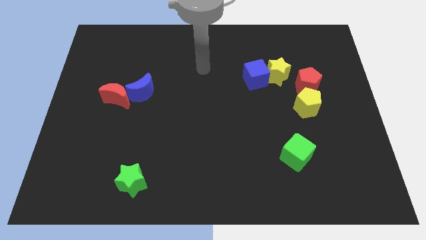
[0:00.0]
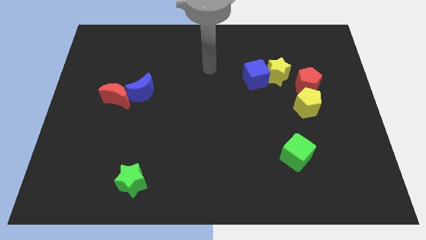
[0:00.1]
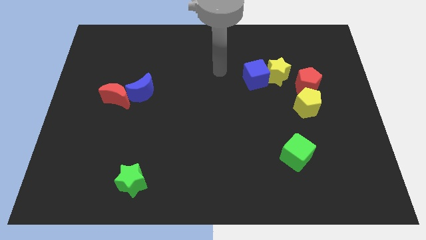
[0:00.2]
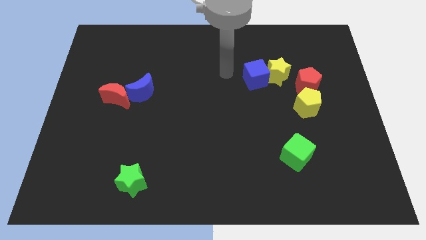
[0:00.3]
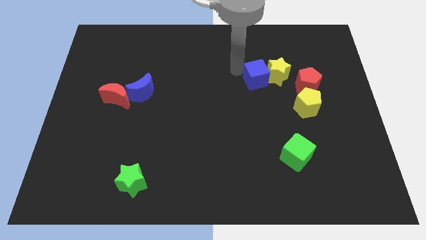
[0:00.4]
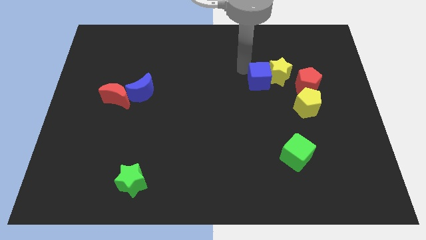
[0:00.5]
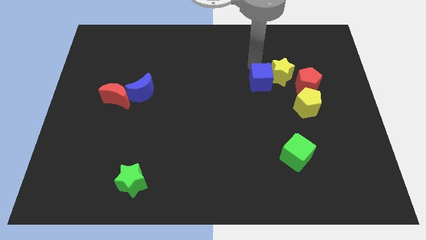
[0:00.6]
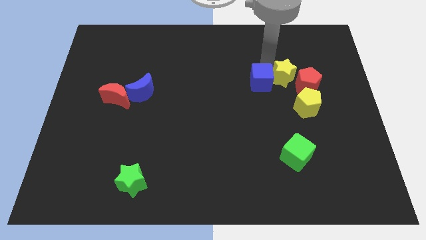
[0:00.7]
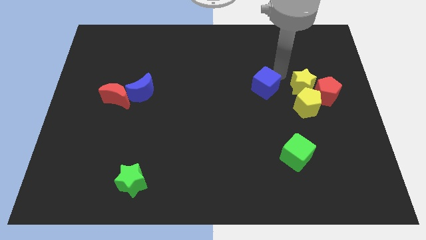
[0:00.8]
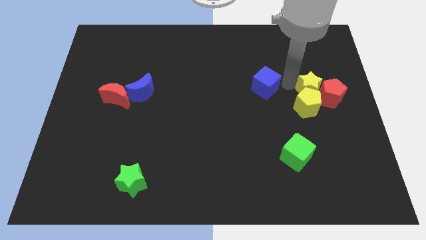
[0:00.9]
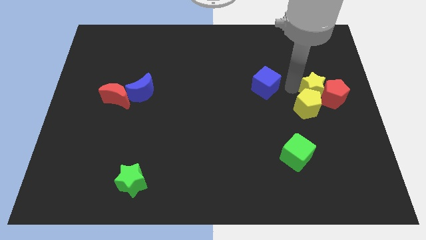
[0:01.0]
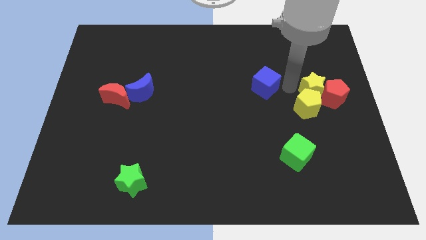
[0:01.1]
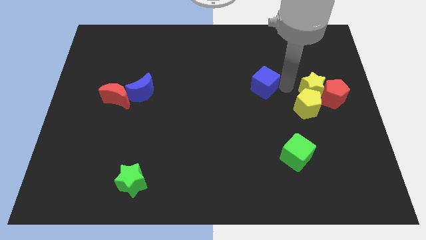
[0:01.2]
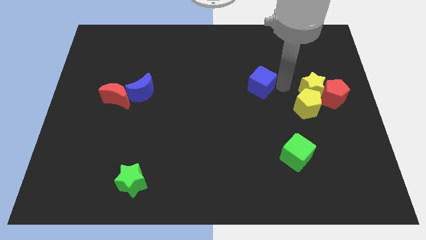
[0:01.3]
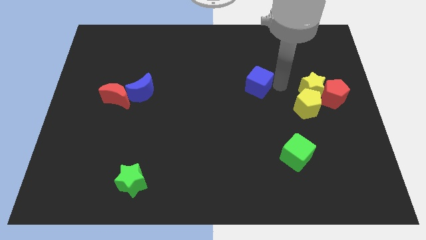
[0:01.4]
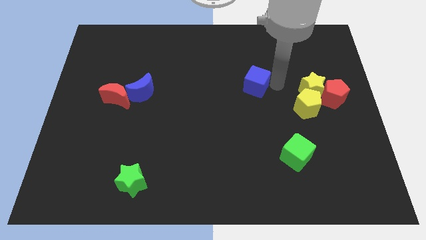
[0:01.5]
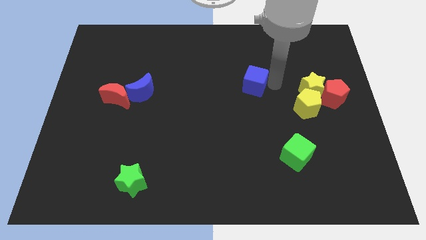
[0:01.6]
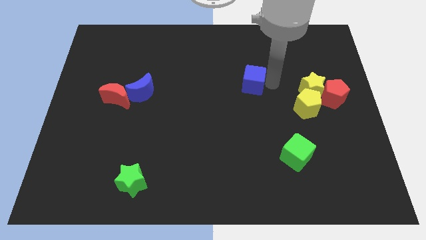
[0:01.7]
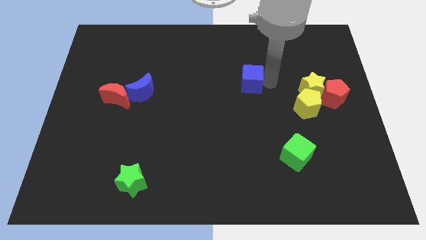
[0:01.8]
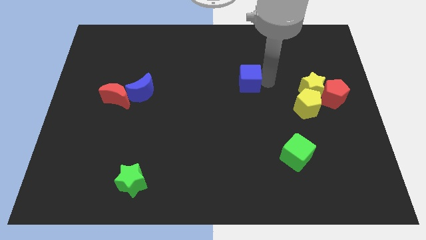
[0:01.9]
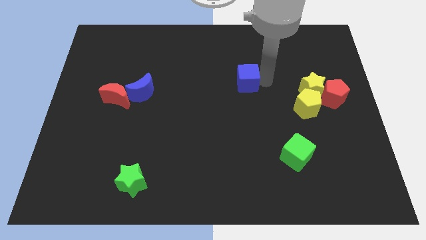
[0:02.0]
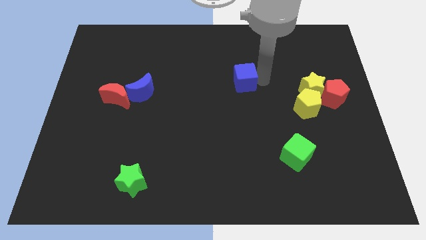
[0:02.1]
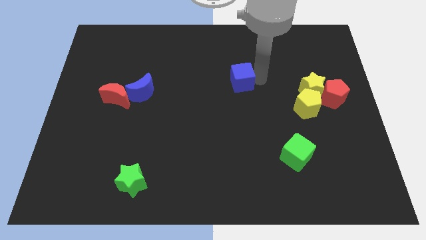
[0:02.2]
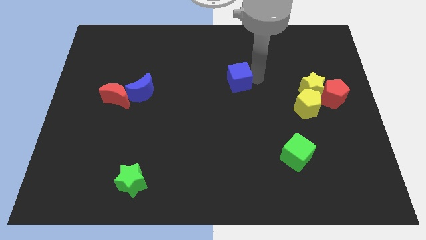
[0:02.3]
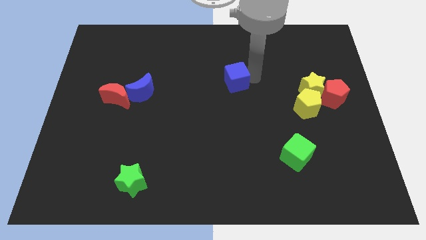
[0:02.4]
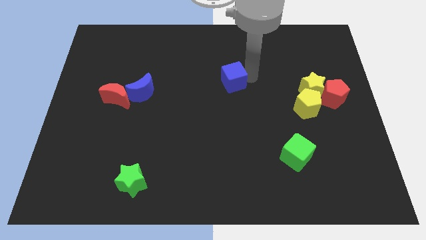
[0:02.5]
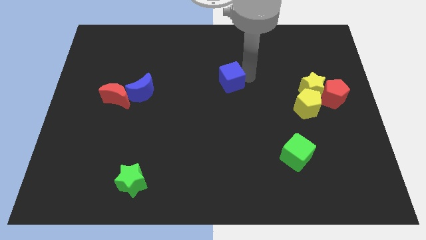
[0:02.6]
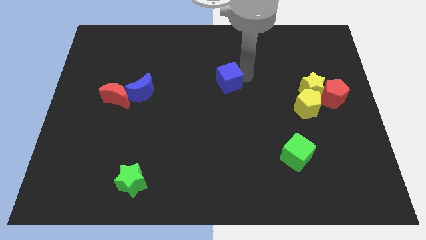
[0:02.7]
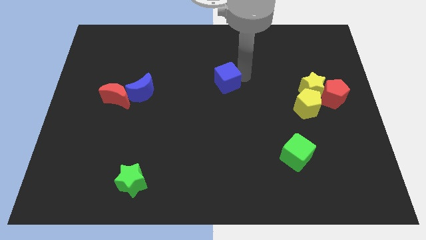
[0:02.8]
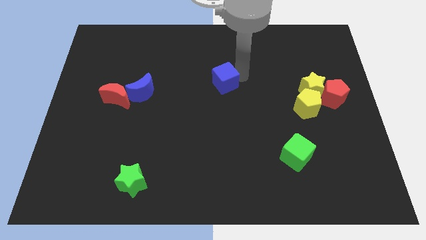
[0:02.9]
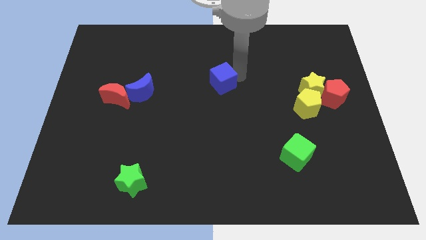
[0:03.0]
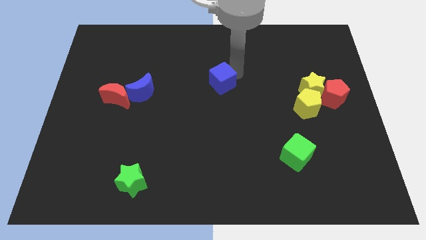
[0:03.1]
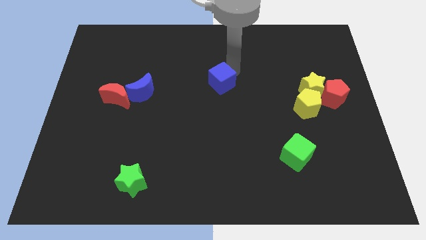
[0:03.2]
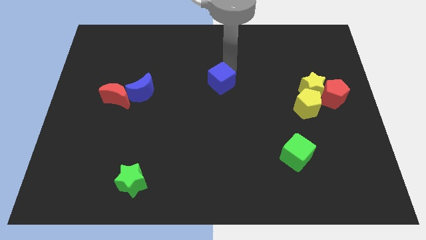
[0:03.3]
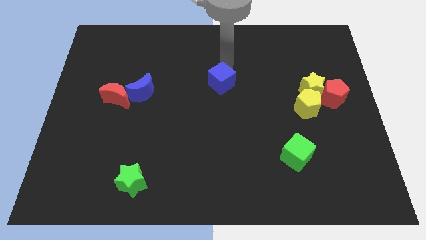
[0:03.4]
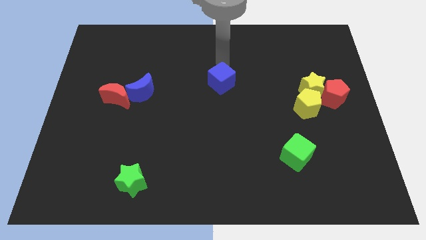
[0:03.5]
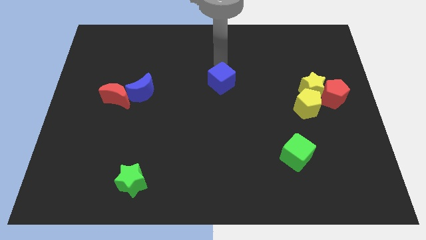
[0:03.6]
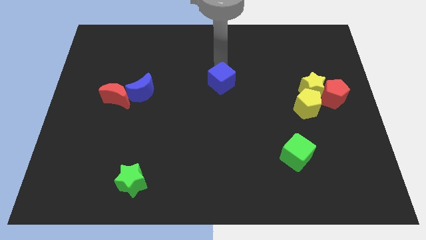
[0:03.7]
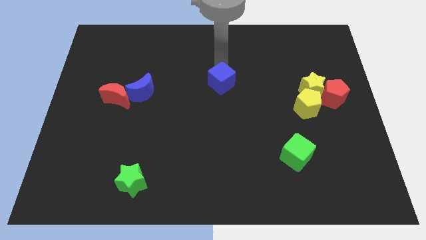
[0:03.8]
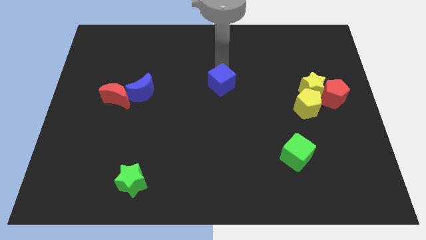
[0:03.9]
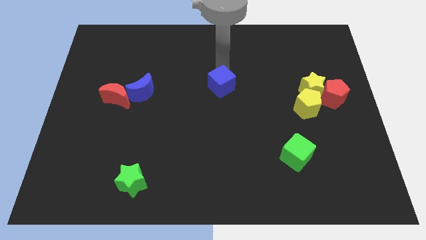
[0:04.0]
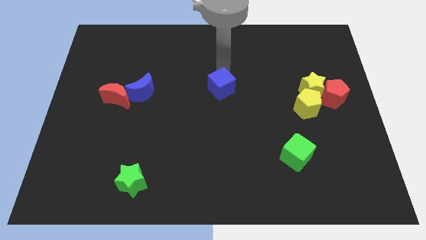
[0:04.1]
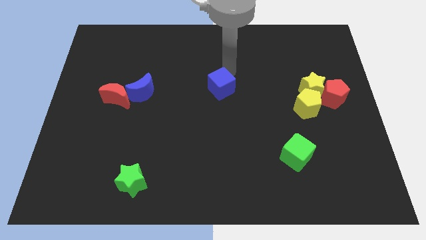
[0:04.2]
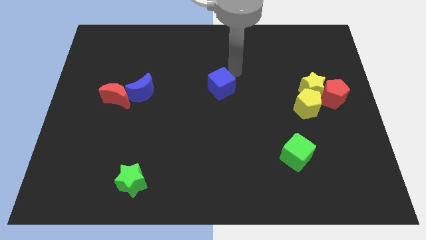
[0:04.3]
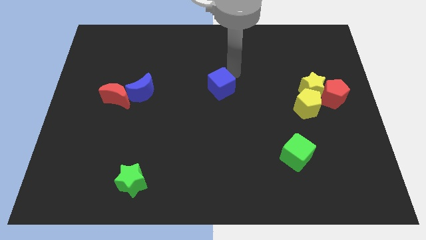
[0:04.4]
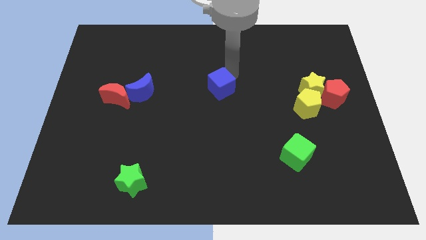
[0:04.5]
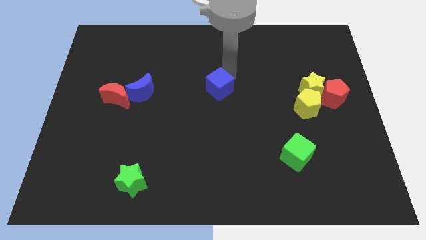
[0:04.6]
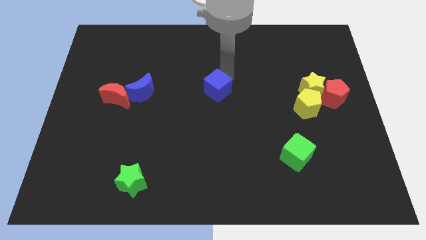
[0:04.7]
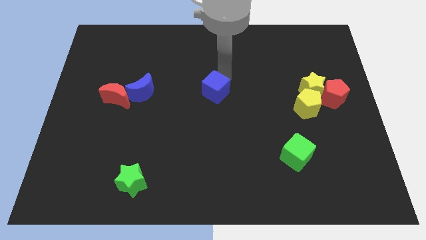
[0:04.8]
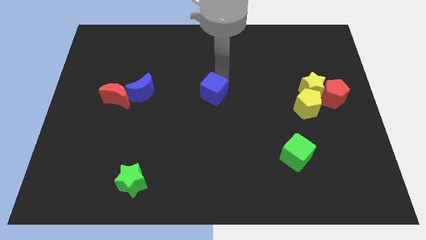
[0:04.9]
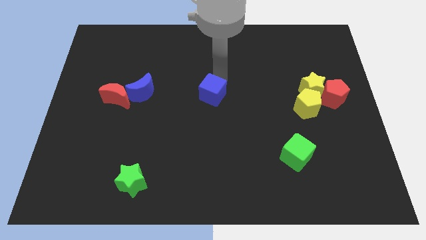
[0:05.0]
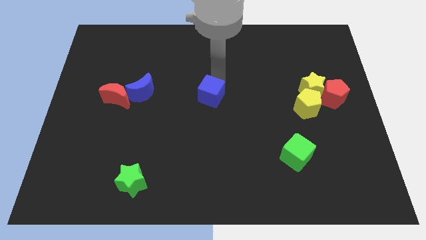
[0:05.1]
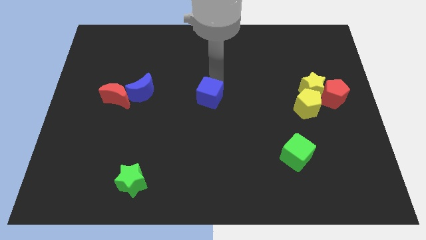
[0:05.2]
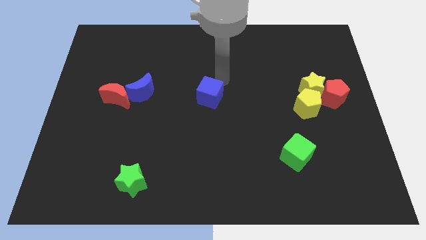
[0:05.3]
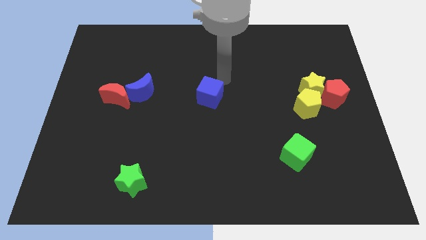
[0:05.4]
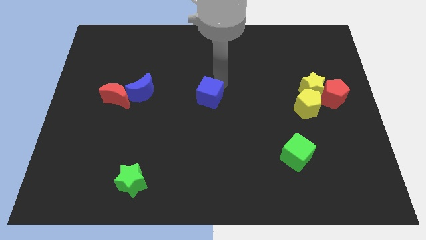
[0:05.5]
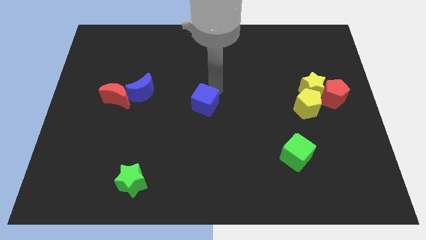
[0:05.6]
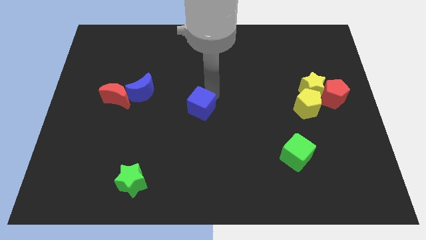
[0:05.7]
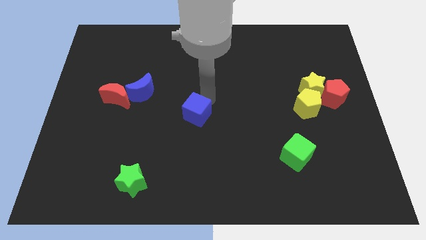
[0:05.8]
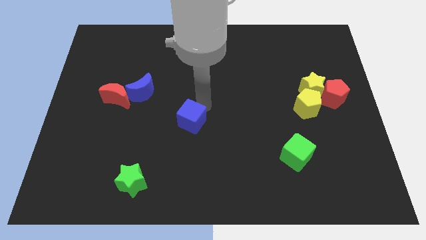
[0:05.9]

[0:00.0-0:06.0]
move the blue cube down and left diagonally

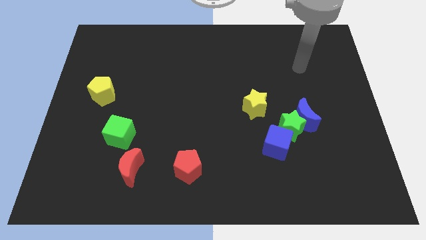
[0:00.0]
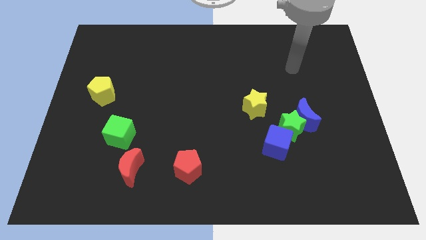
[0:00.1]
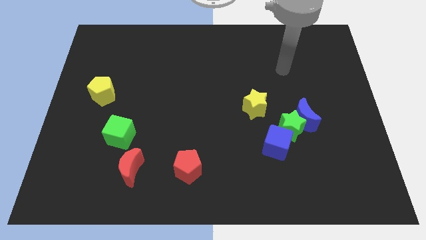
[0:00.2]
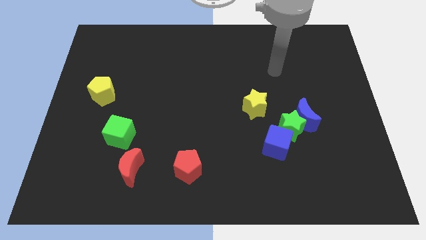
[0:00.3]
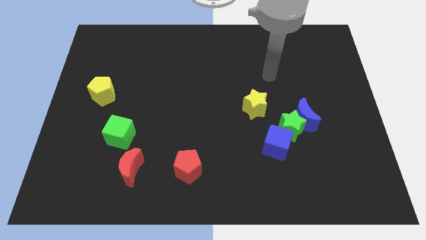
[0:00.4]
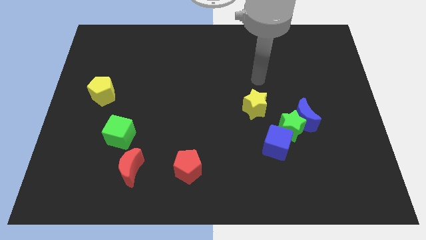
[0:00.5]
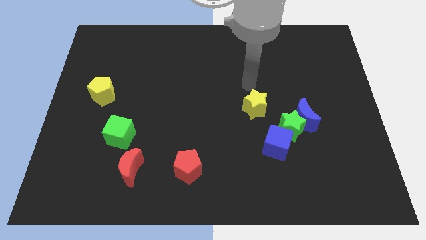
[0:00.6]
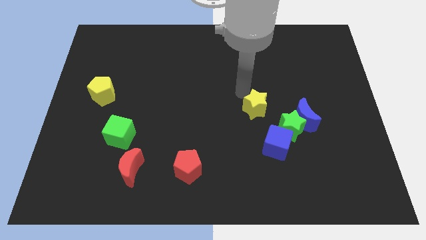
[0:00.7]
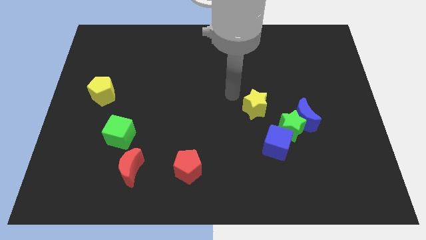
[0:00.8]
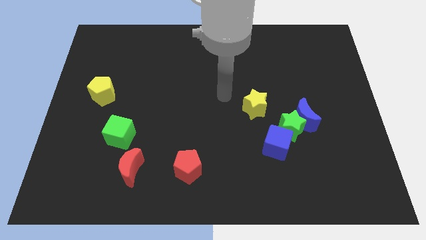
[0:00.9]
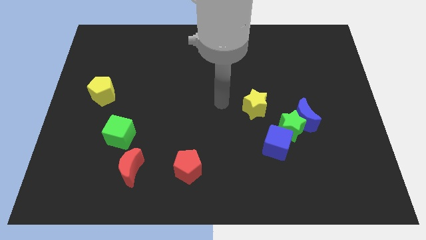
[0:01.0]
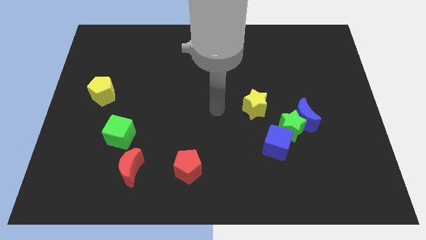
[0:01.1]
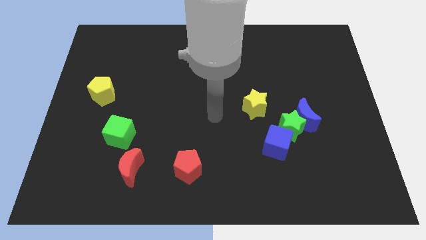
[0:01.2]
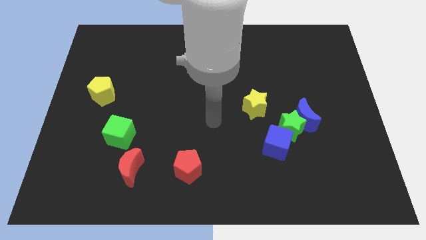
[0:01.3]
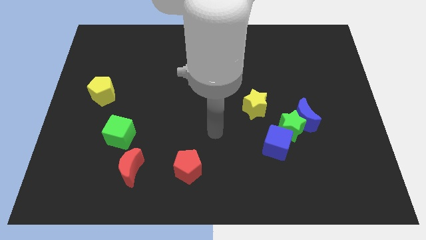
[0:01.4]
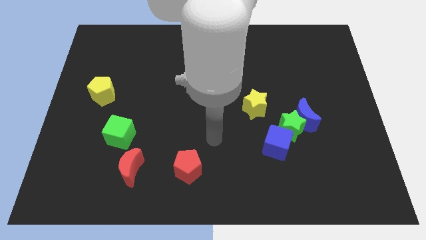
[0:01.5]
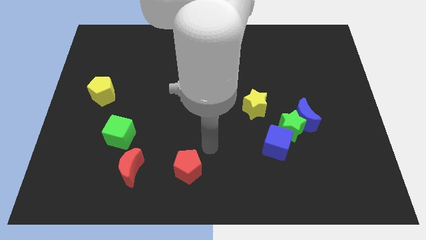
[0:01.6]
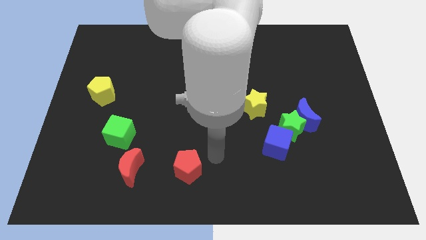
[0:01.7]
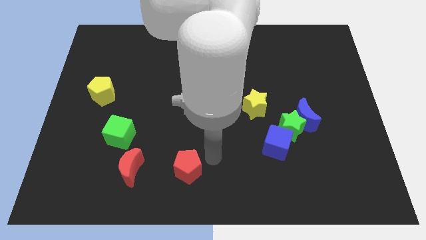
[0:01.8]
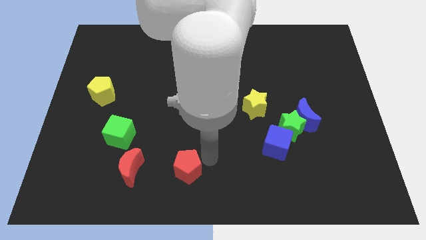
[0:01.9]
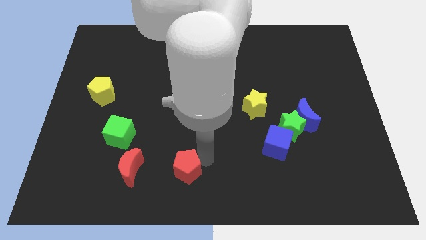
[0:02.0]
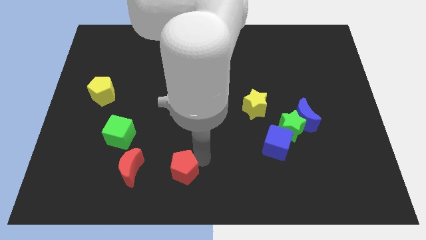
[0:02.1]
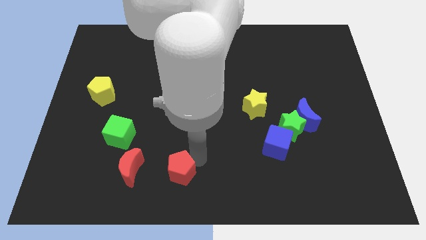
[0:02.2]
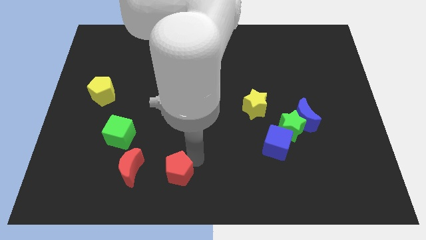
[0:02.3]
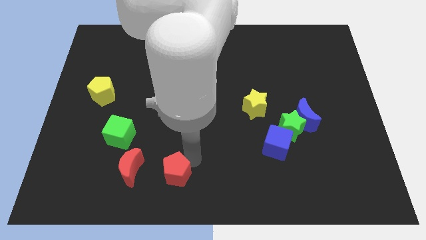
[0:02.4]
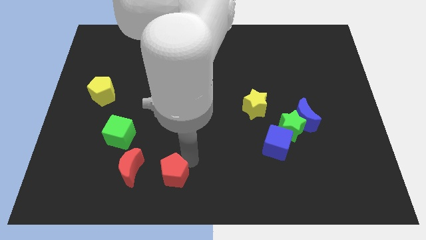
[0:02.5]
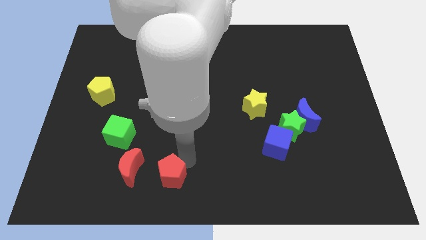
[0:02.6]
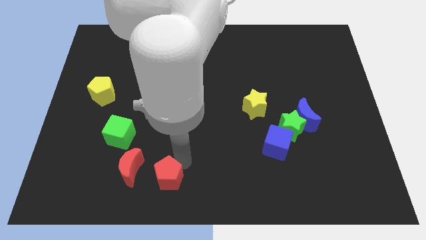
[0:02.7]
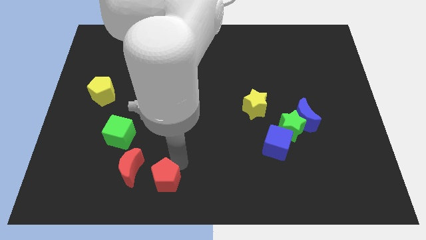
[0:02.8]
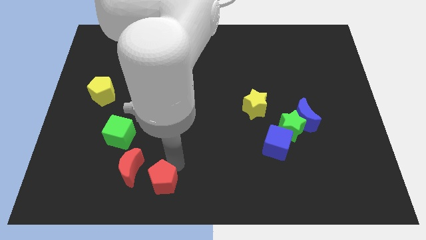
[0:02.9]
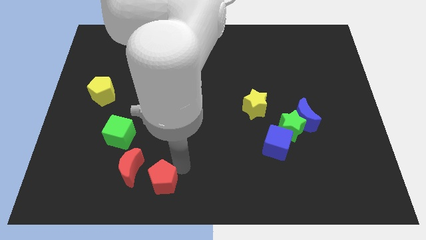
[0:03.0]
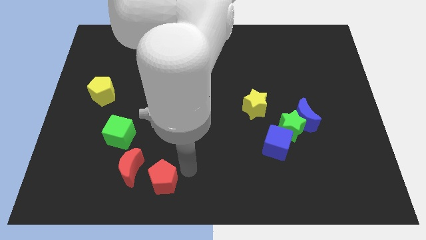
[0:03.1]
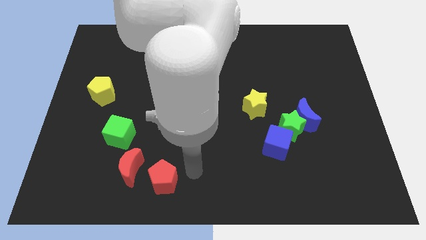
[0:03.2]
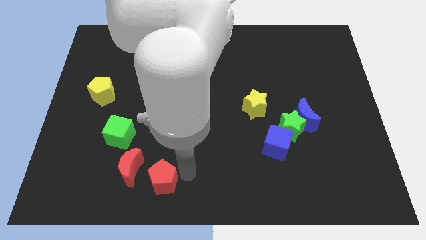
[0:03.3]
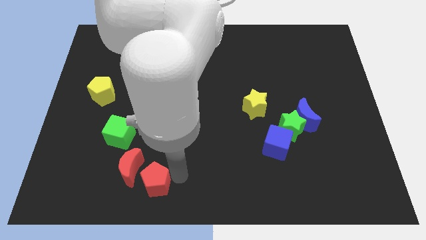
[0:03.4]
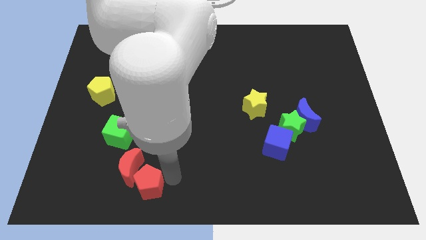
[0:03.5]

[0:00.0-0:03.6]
slightly slide the red pentagon to the left
